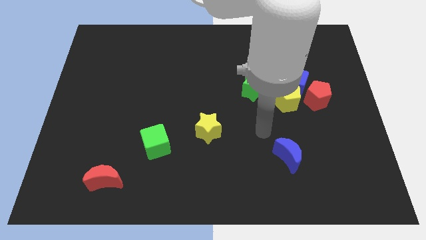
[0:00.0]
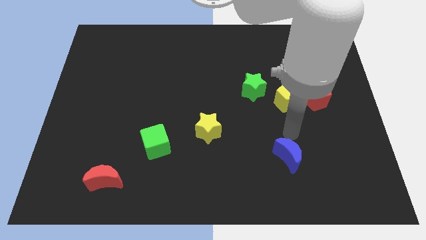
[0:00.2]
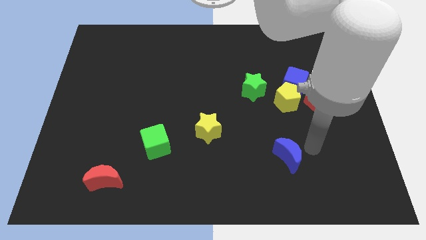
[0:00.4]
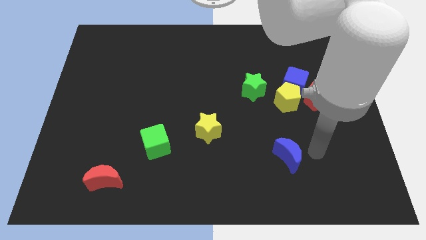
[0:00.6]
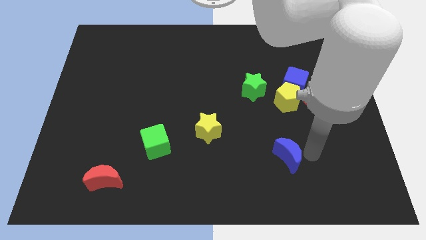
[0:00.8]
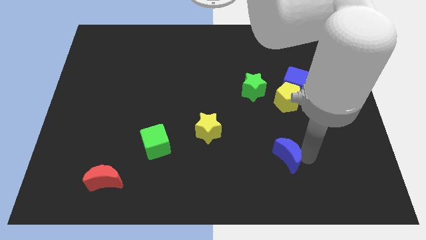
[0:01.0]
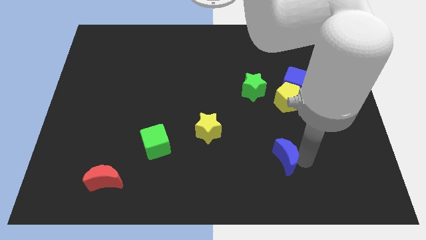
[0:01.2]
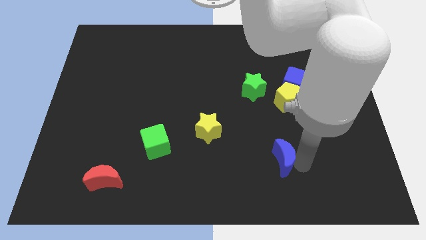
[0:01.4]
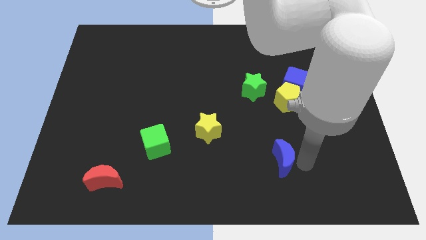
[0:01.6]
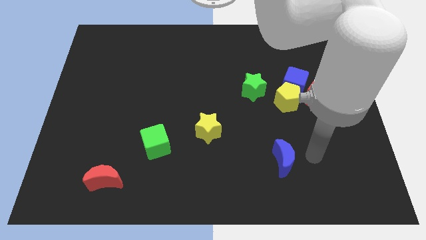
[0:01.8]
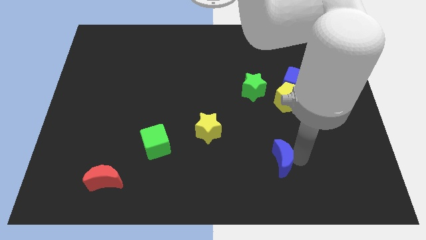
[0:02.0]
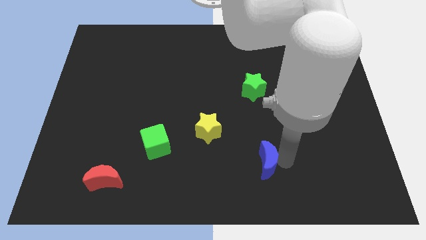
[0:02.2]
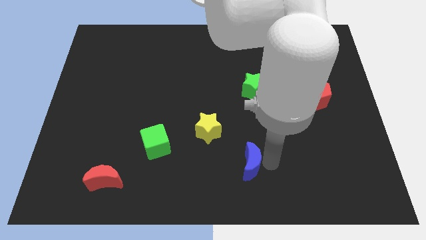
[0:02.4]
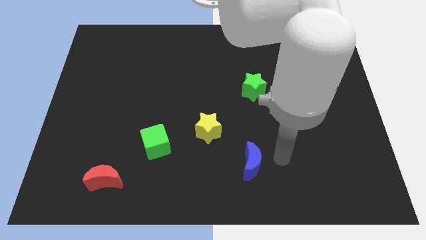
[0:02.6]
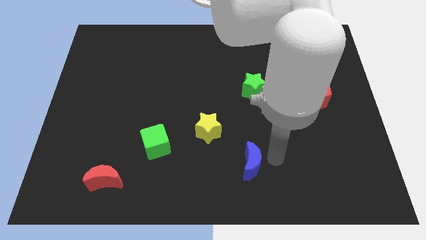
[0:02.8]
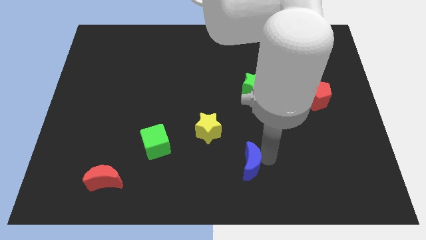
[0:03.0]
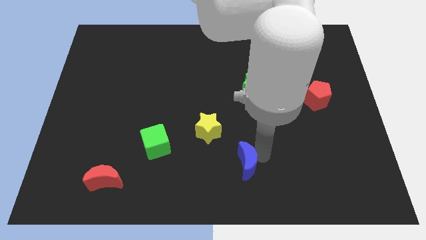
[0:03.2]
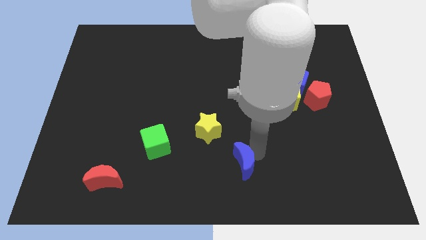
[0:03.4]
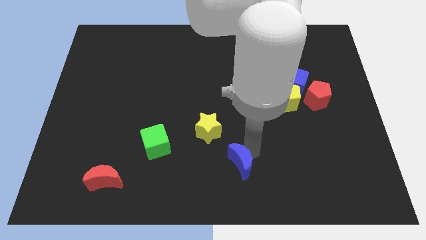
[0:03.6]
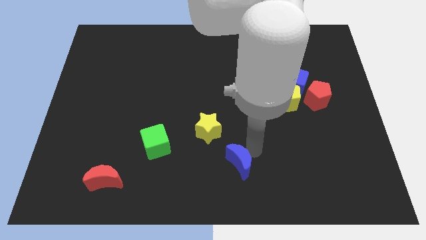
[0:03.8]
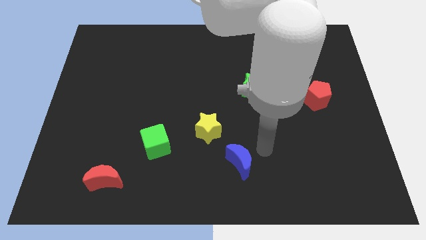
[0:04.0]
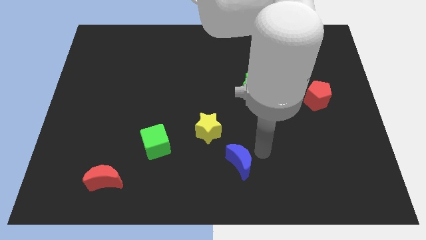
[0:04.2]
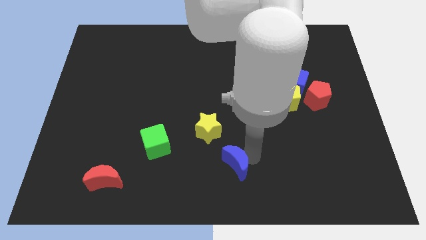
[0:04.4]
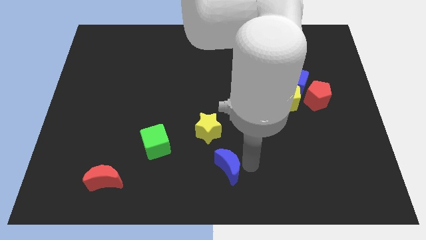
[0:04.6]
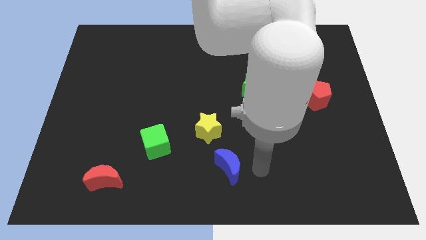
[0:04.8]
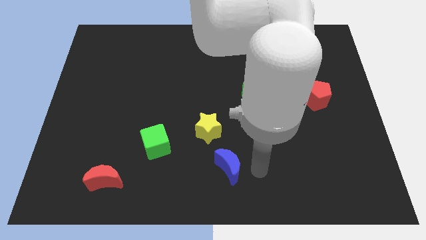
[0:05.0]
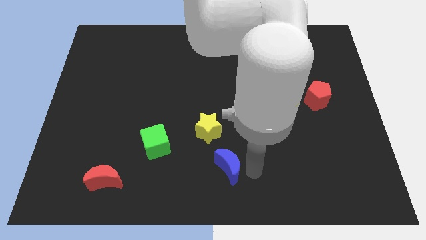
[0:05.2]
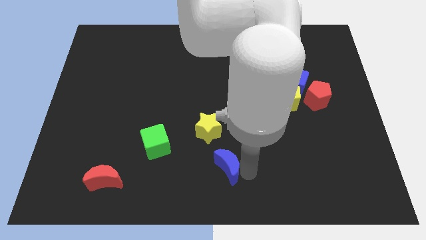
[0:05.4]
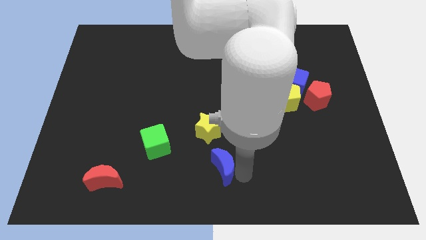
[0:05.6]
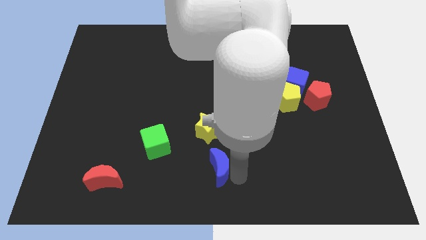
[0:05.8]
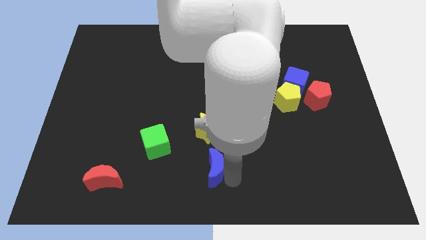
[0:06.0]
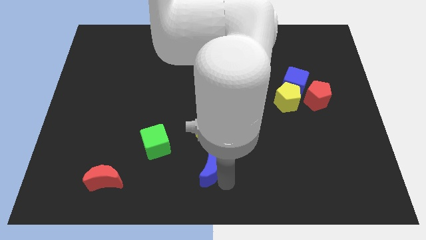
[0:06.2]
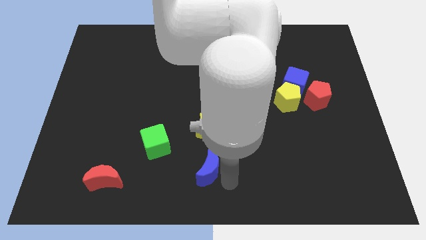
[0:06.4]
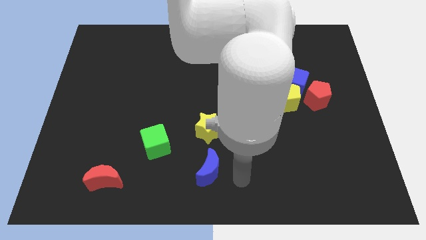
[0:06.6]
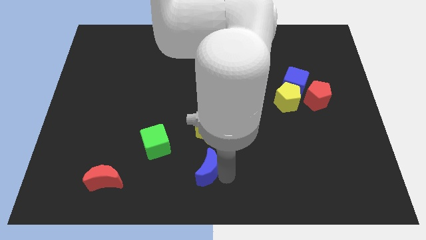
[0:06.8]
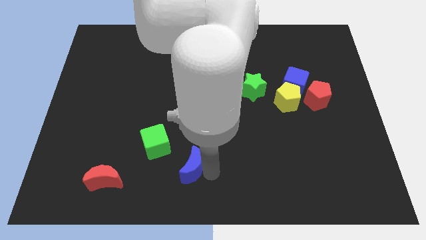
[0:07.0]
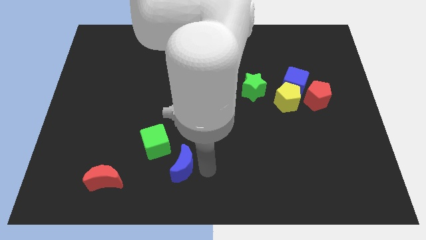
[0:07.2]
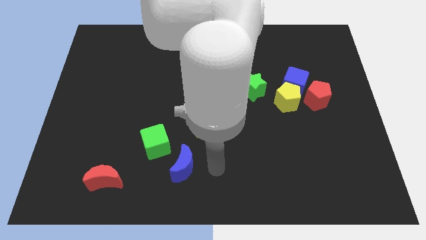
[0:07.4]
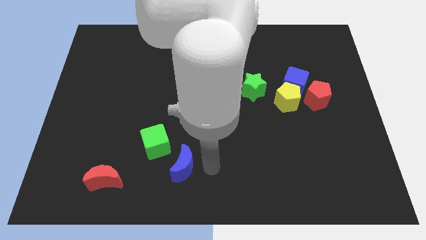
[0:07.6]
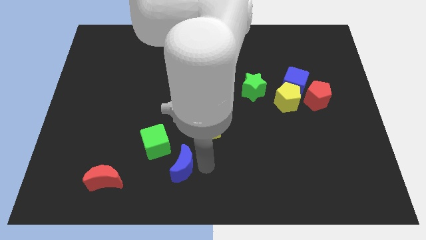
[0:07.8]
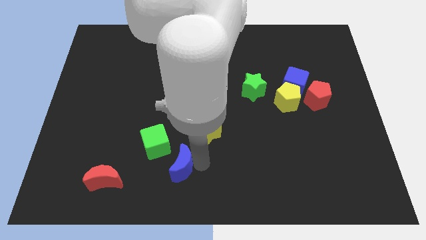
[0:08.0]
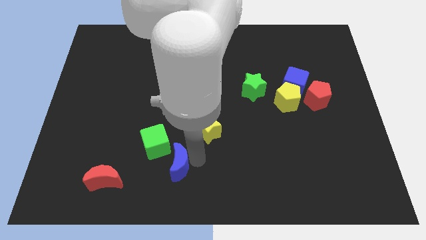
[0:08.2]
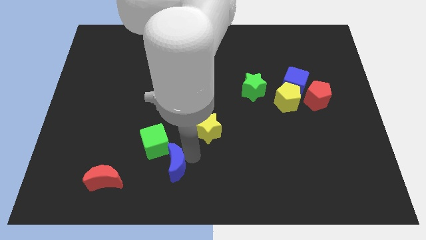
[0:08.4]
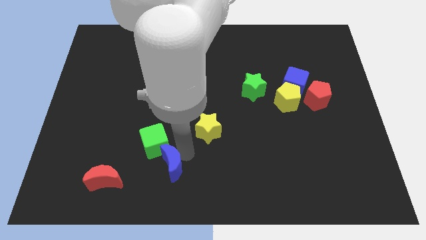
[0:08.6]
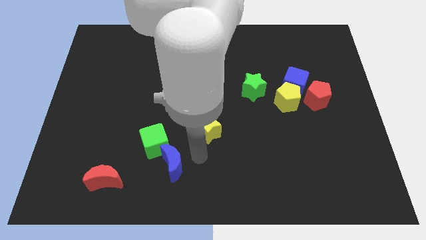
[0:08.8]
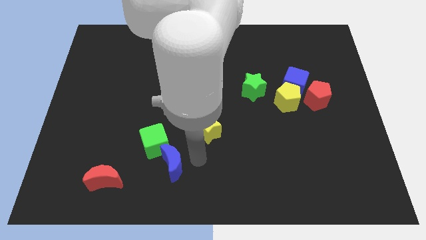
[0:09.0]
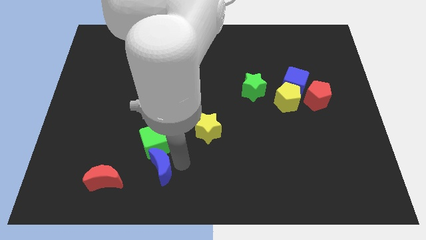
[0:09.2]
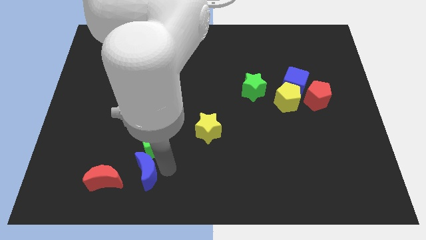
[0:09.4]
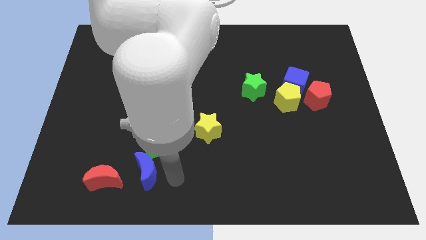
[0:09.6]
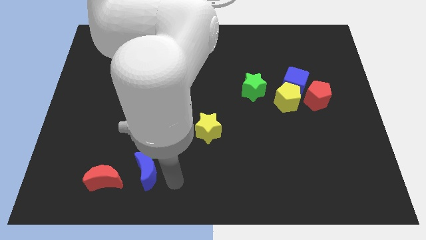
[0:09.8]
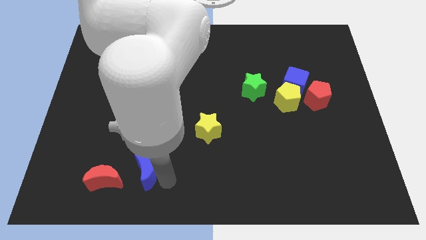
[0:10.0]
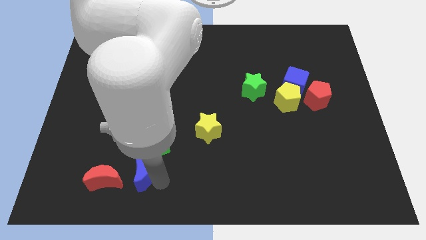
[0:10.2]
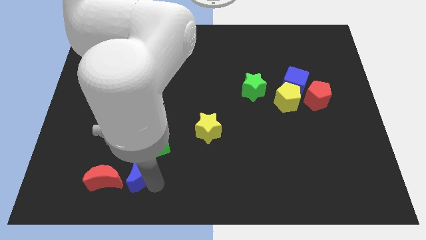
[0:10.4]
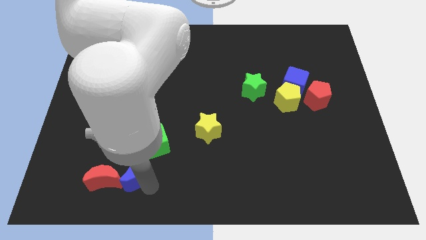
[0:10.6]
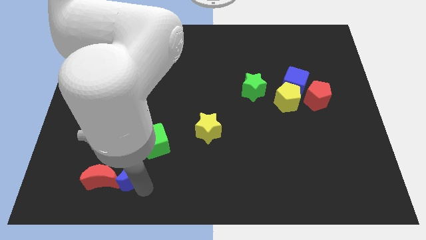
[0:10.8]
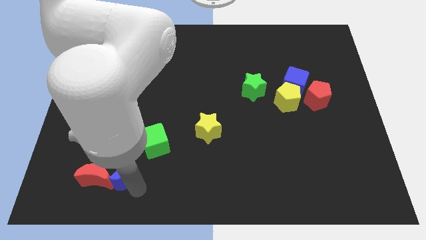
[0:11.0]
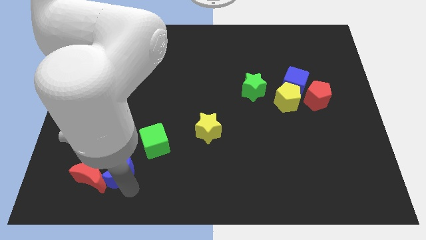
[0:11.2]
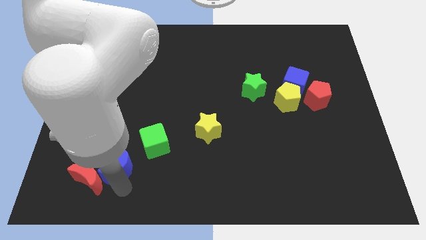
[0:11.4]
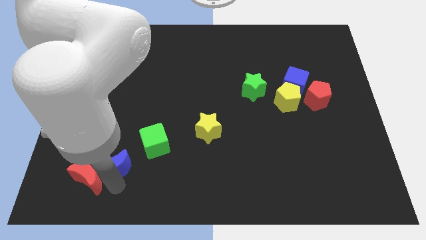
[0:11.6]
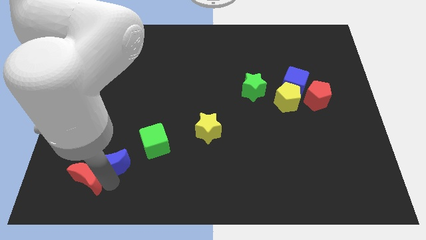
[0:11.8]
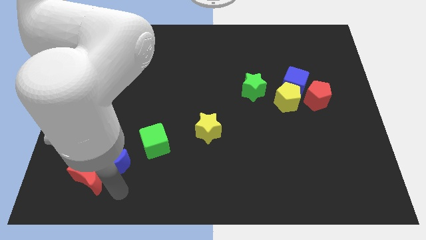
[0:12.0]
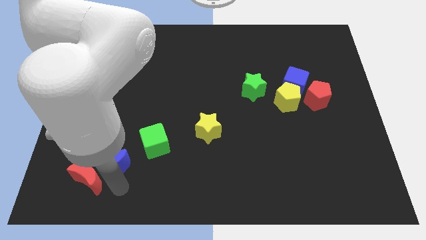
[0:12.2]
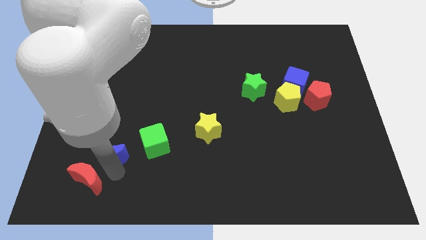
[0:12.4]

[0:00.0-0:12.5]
put the blue moon to the left side of the green cube
